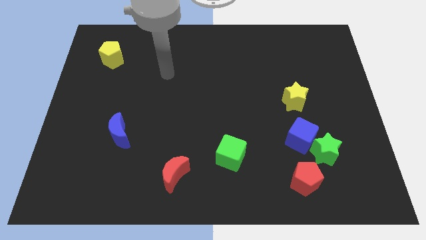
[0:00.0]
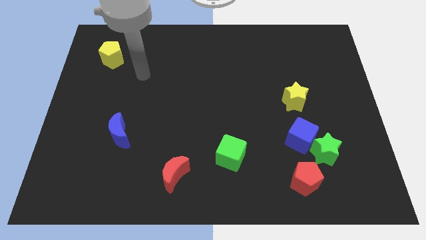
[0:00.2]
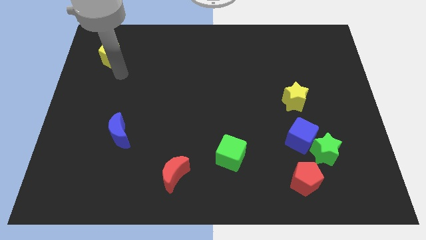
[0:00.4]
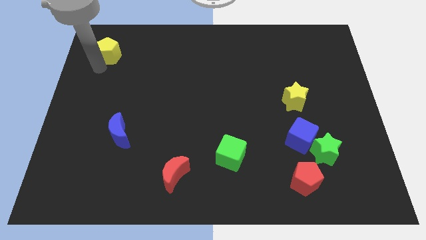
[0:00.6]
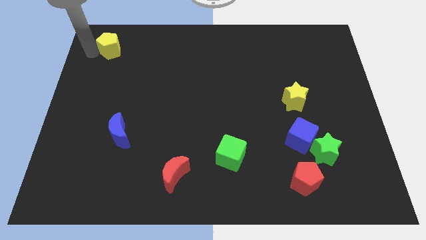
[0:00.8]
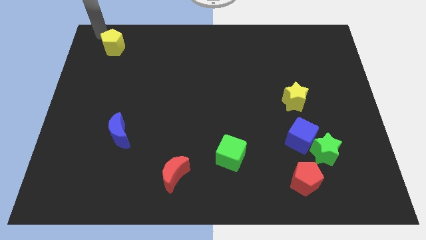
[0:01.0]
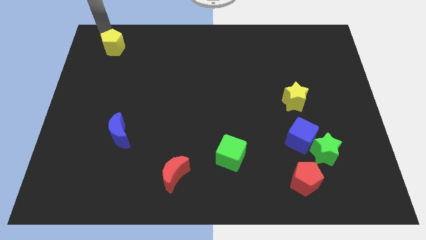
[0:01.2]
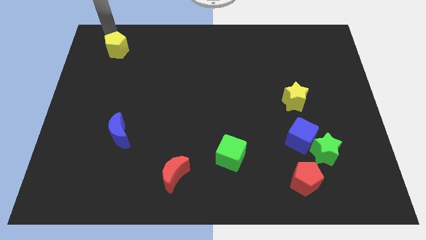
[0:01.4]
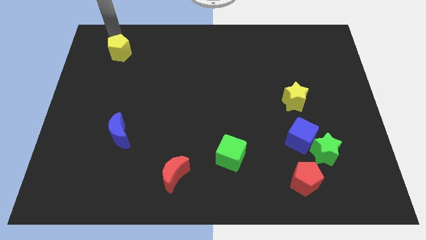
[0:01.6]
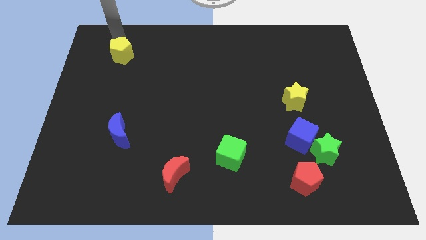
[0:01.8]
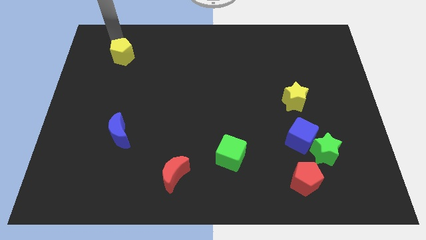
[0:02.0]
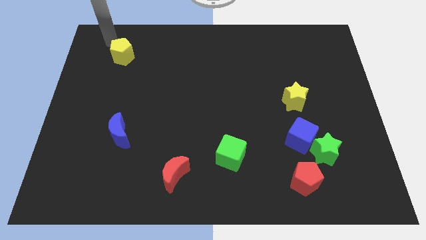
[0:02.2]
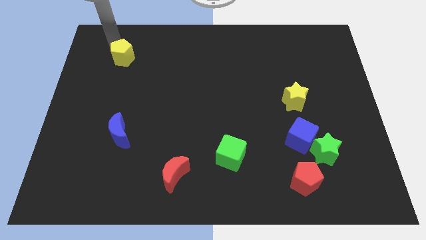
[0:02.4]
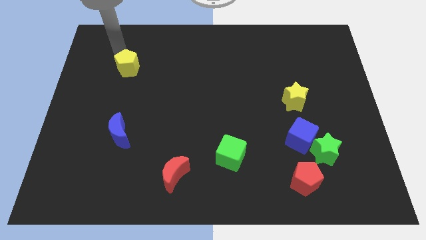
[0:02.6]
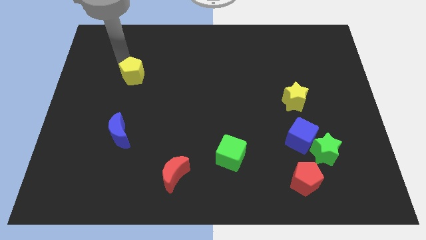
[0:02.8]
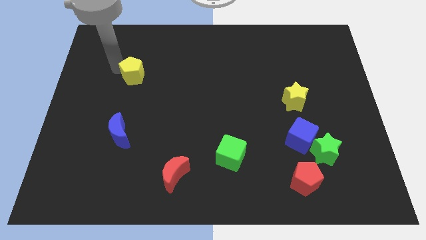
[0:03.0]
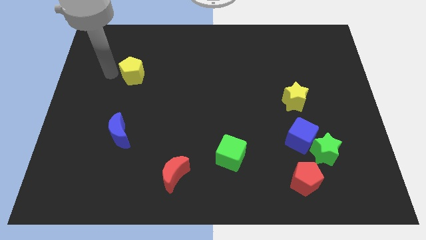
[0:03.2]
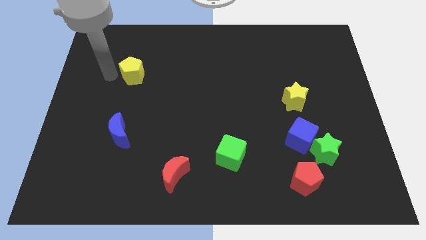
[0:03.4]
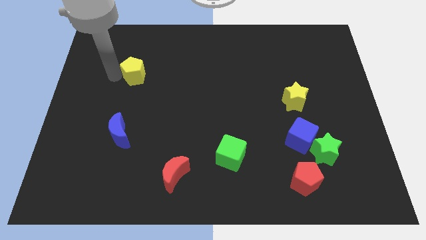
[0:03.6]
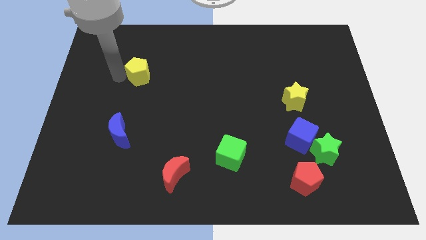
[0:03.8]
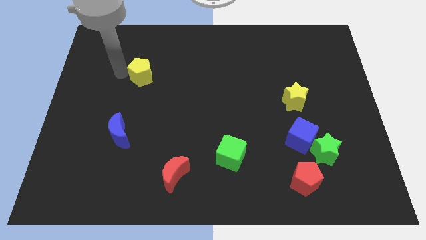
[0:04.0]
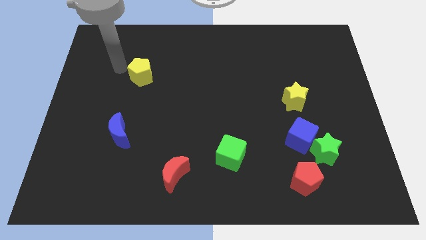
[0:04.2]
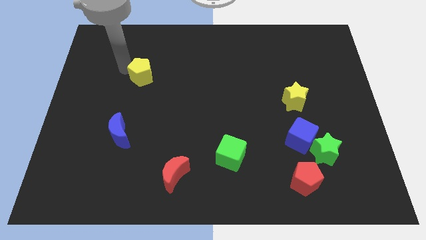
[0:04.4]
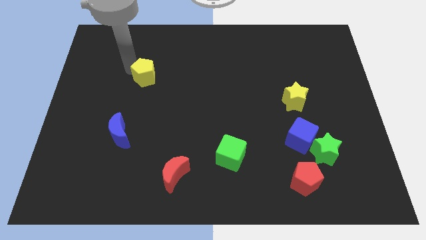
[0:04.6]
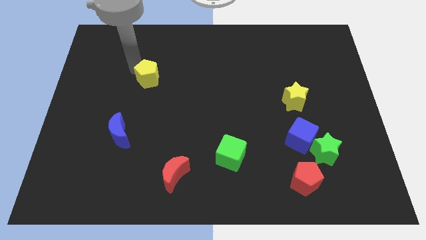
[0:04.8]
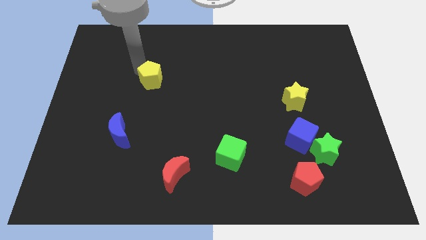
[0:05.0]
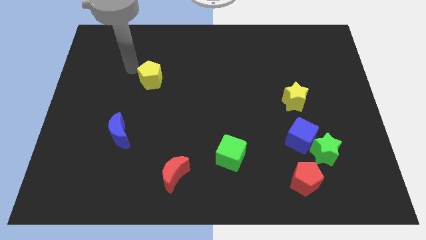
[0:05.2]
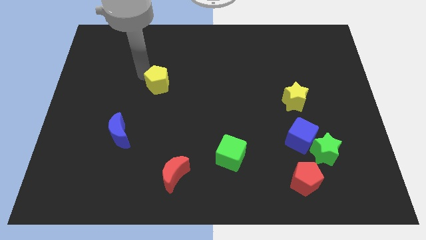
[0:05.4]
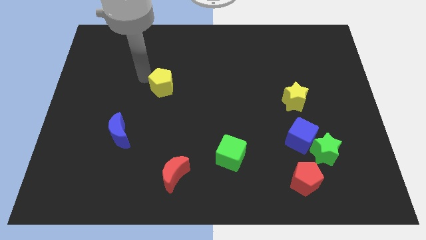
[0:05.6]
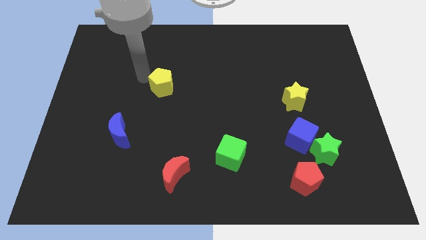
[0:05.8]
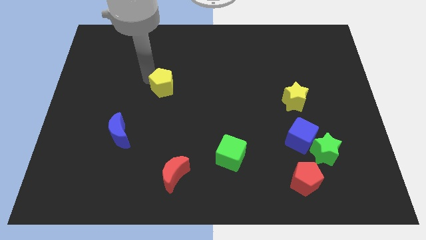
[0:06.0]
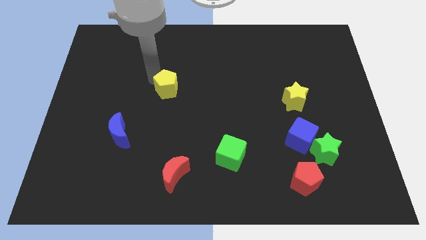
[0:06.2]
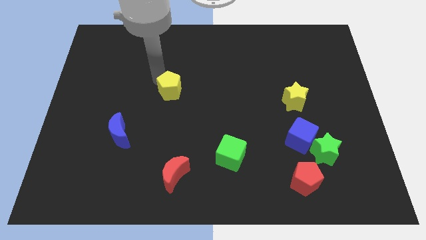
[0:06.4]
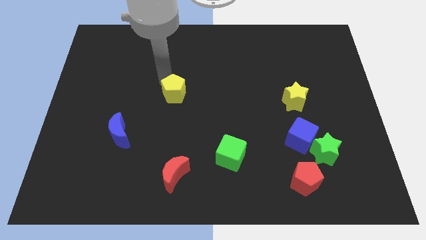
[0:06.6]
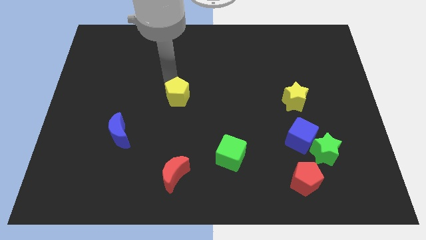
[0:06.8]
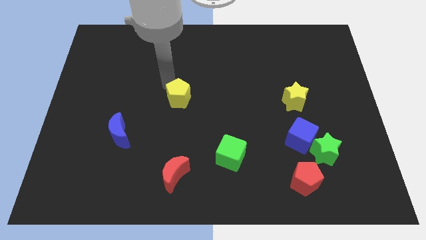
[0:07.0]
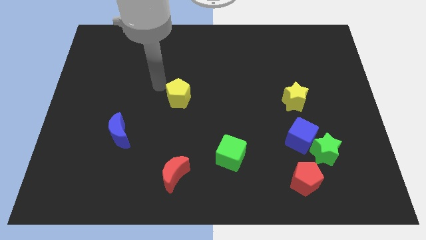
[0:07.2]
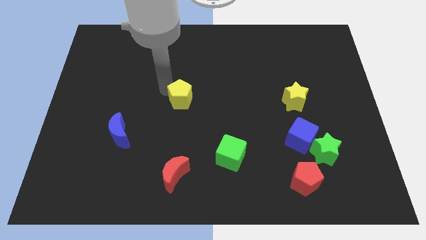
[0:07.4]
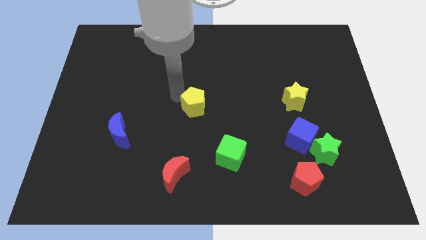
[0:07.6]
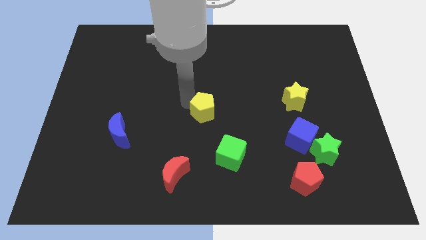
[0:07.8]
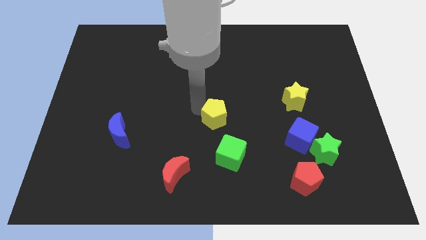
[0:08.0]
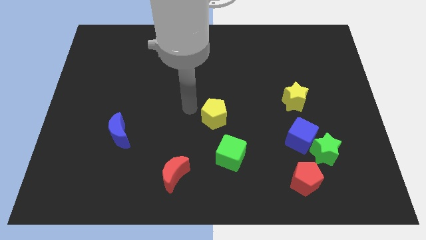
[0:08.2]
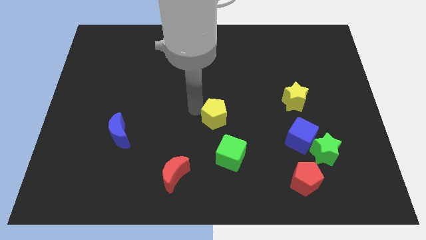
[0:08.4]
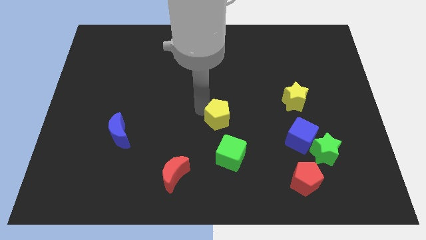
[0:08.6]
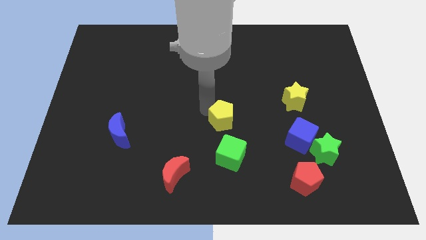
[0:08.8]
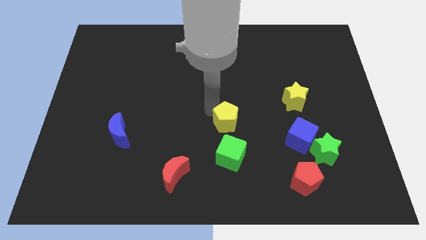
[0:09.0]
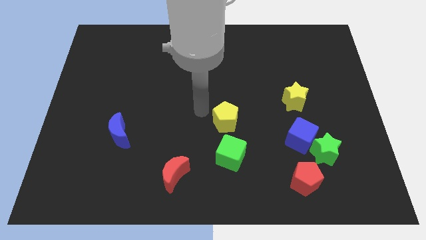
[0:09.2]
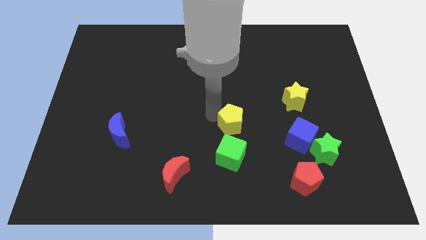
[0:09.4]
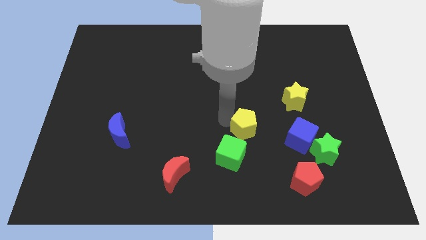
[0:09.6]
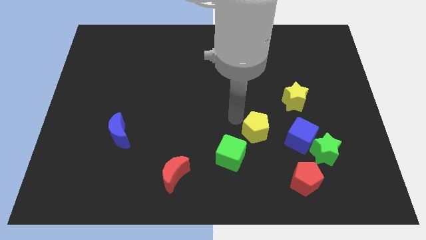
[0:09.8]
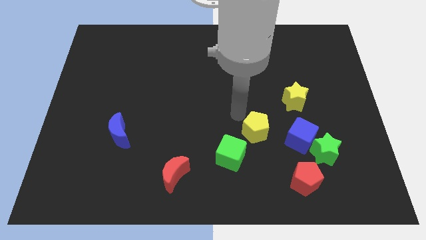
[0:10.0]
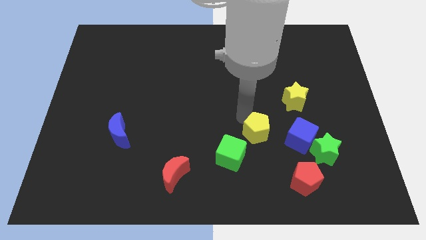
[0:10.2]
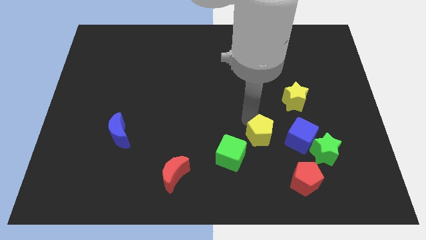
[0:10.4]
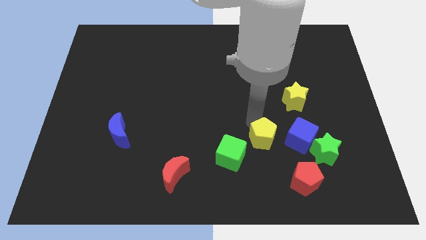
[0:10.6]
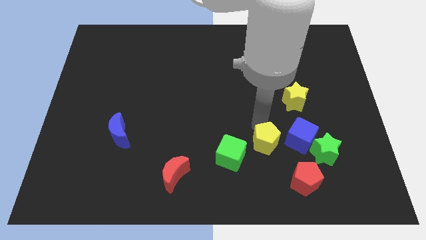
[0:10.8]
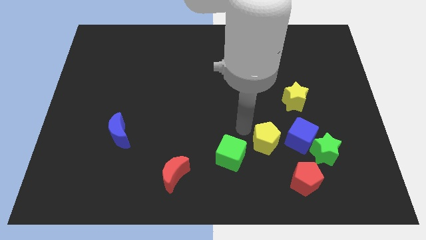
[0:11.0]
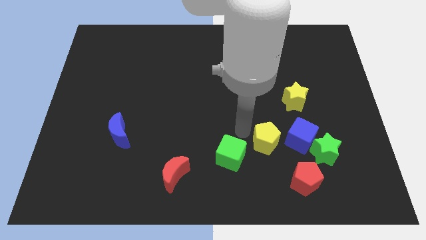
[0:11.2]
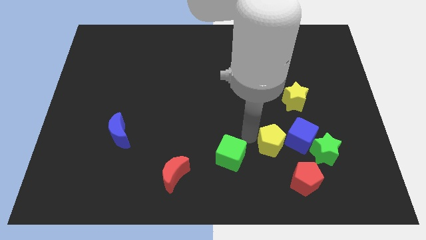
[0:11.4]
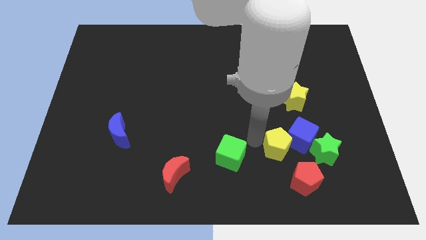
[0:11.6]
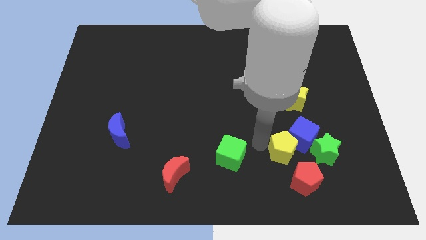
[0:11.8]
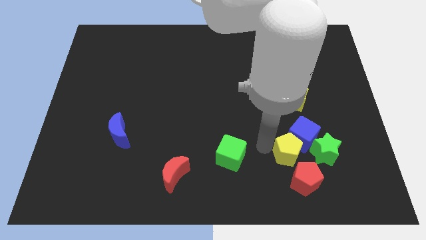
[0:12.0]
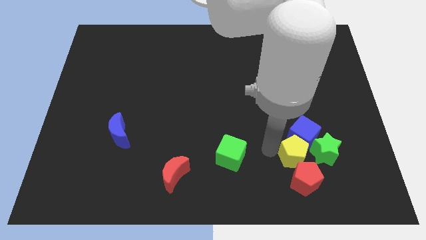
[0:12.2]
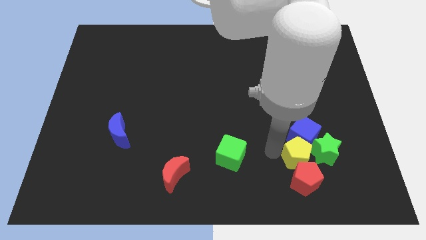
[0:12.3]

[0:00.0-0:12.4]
slide the yellow pentagon close to the green star

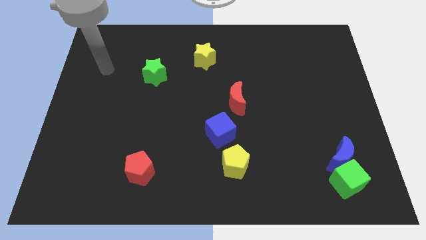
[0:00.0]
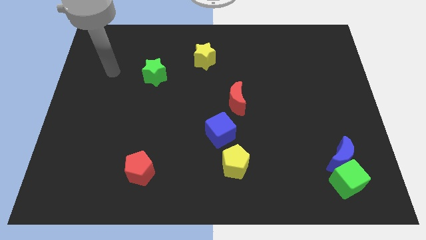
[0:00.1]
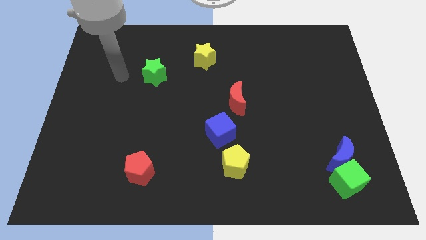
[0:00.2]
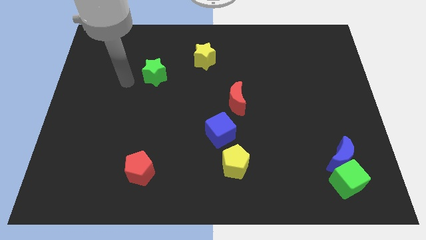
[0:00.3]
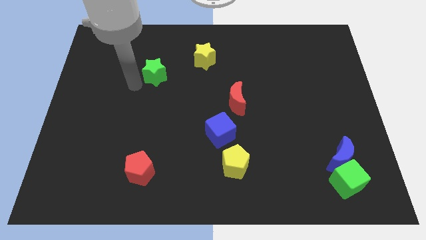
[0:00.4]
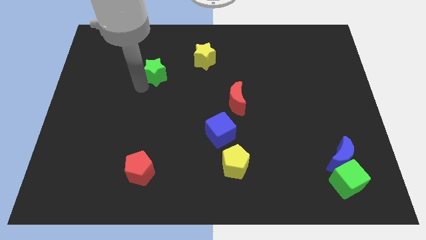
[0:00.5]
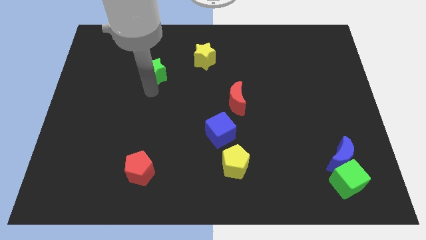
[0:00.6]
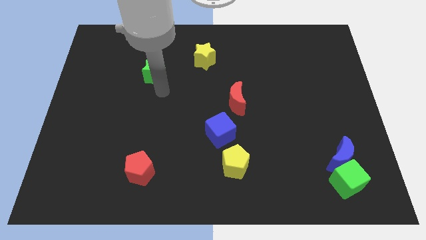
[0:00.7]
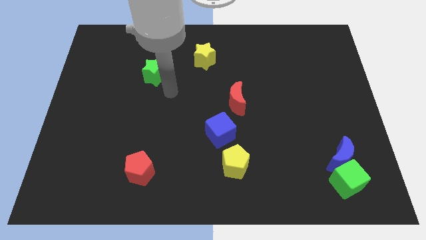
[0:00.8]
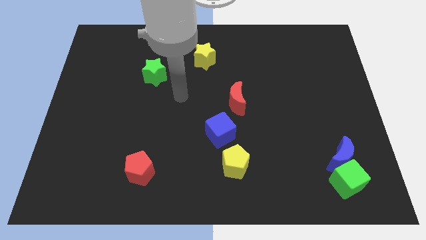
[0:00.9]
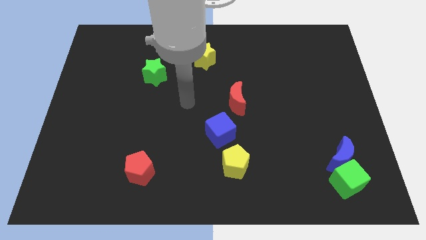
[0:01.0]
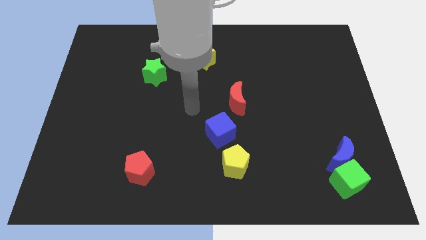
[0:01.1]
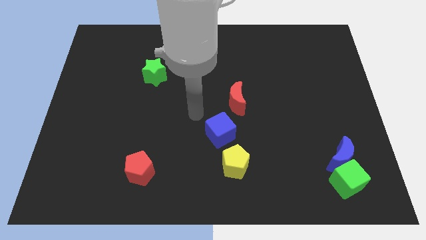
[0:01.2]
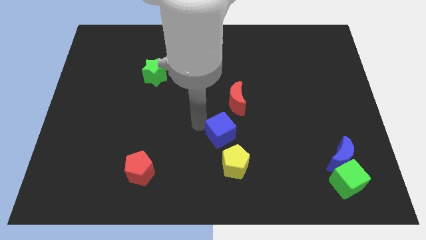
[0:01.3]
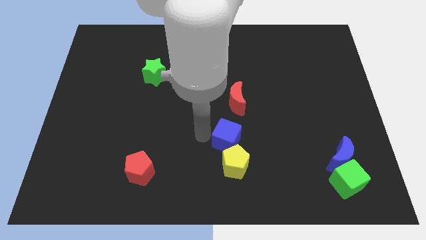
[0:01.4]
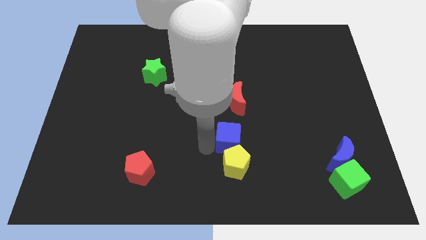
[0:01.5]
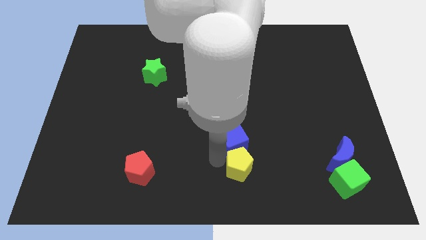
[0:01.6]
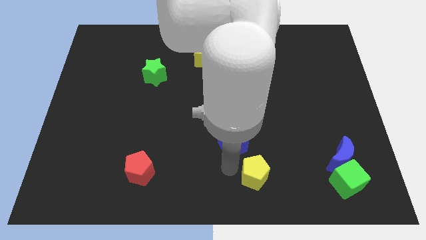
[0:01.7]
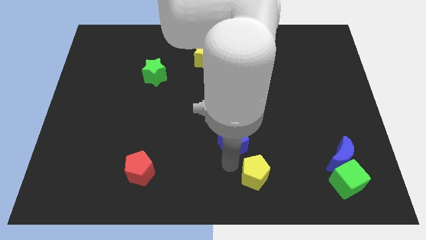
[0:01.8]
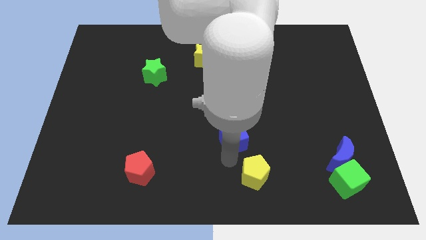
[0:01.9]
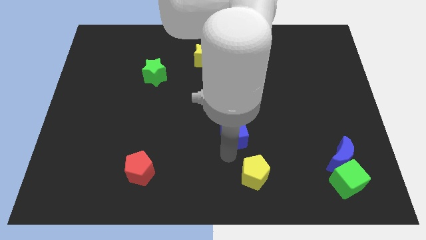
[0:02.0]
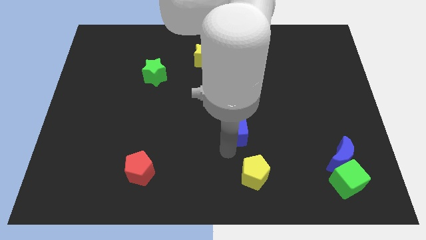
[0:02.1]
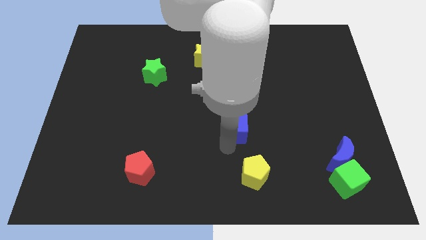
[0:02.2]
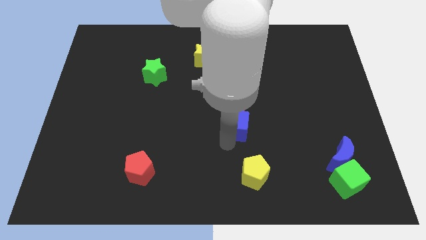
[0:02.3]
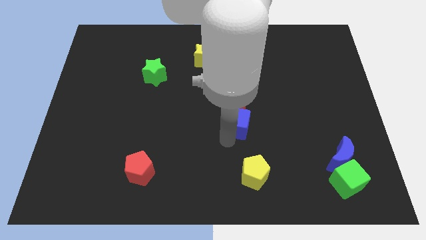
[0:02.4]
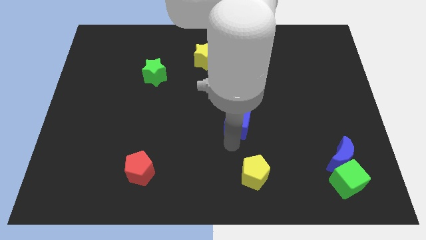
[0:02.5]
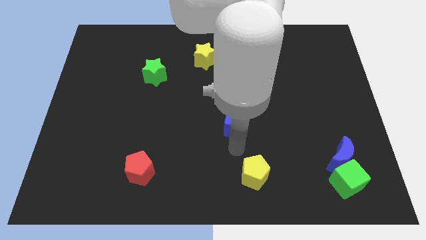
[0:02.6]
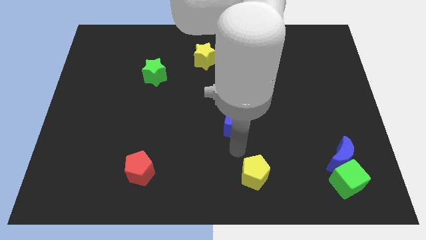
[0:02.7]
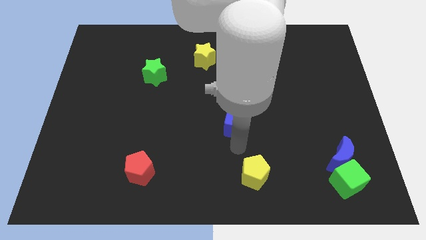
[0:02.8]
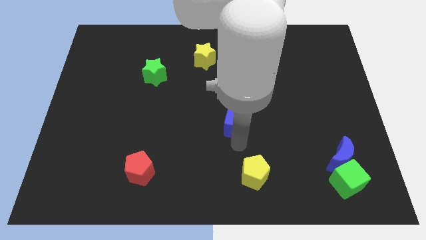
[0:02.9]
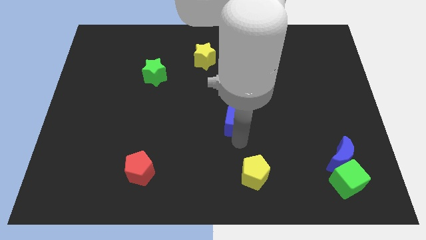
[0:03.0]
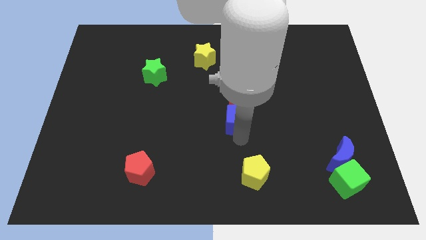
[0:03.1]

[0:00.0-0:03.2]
move the blue cube to the red moon
